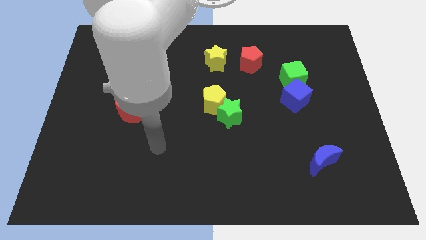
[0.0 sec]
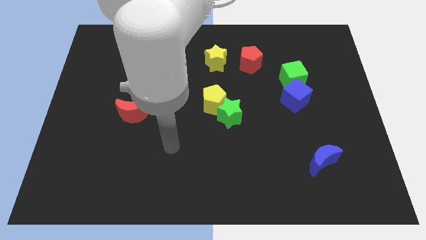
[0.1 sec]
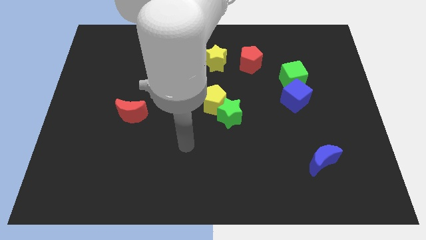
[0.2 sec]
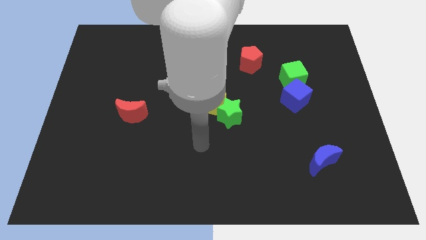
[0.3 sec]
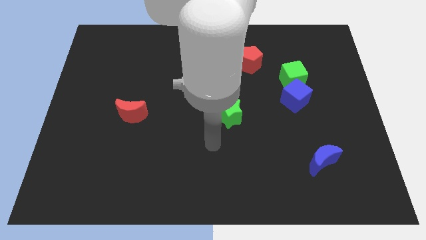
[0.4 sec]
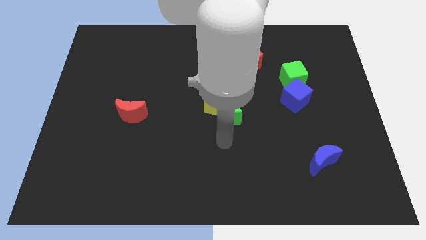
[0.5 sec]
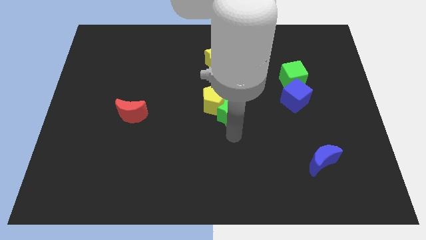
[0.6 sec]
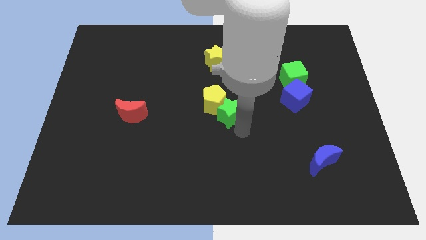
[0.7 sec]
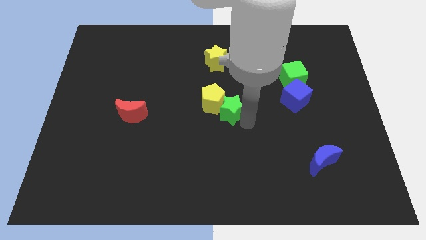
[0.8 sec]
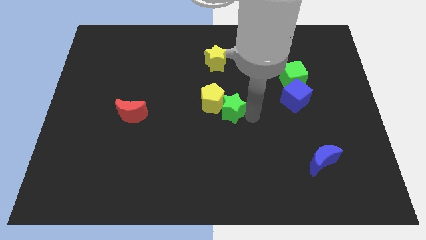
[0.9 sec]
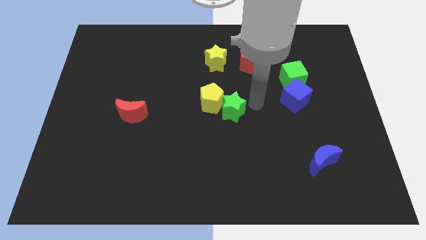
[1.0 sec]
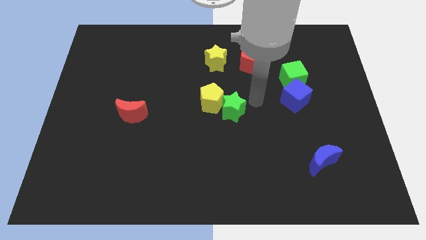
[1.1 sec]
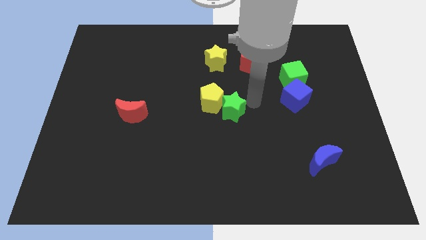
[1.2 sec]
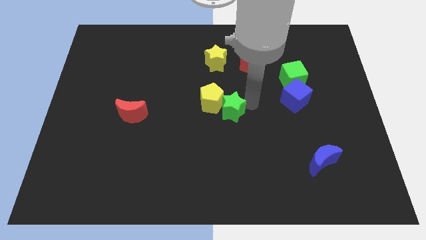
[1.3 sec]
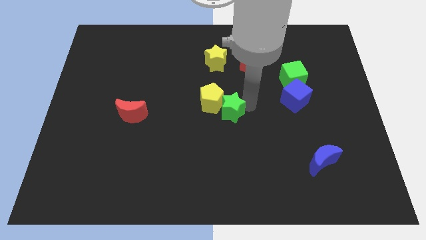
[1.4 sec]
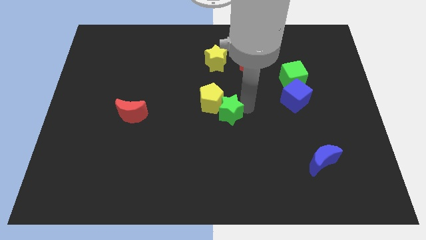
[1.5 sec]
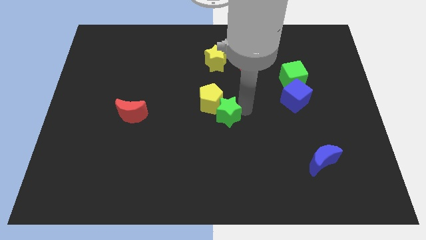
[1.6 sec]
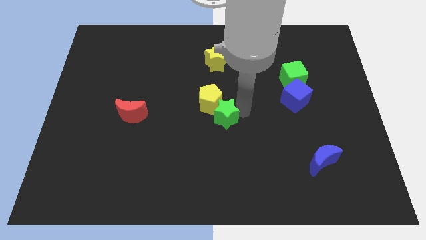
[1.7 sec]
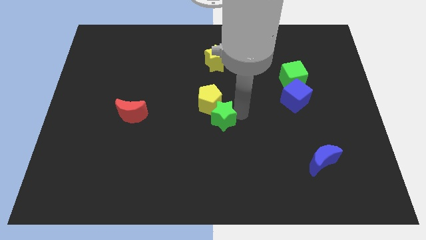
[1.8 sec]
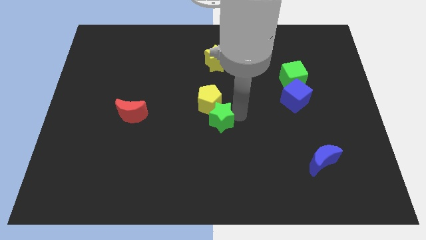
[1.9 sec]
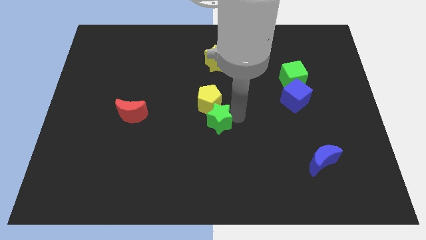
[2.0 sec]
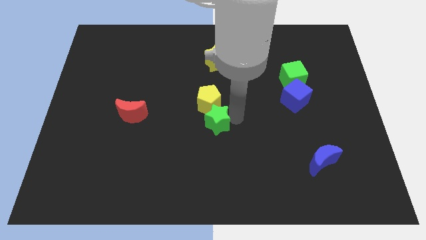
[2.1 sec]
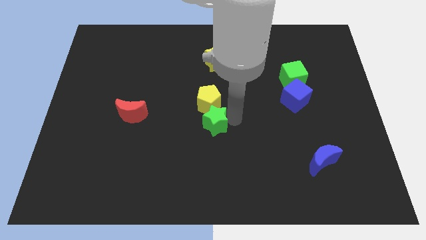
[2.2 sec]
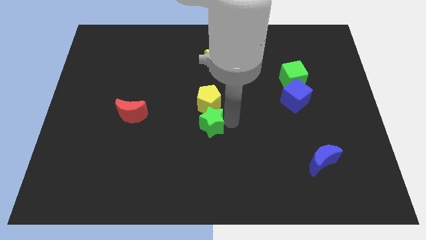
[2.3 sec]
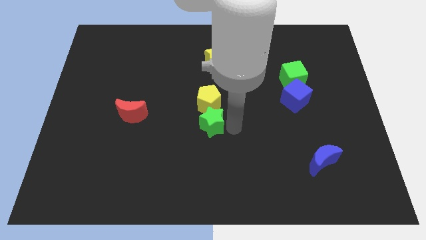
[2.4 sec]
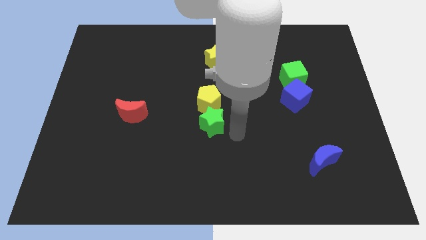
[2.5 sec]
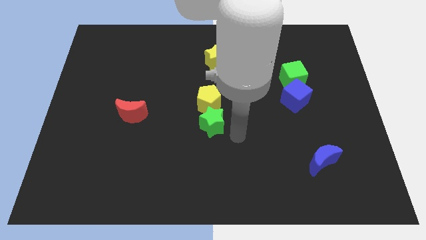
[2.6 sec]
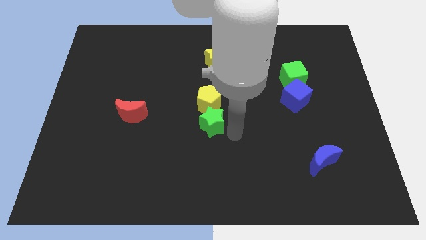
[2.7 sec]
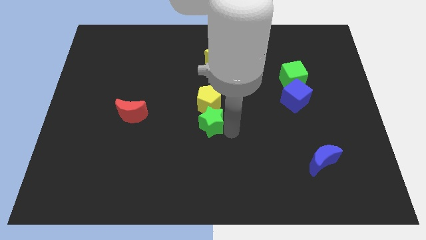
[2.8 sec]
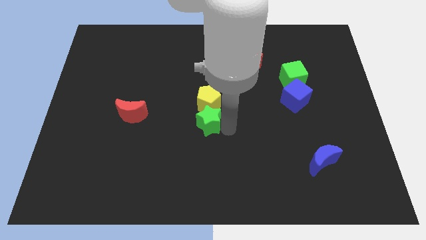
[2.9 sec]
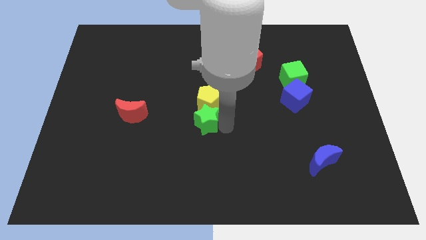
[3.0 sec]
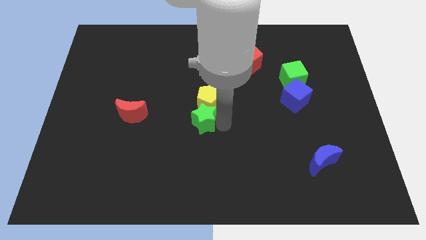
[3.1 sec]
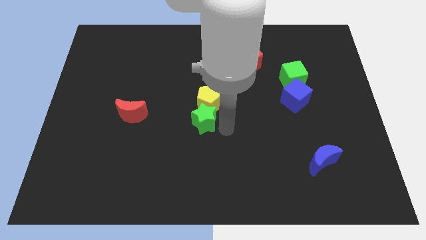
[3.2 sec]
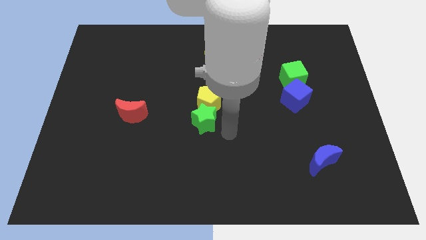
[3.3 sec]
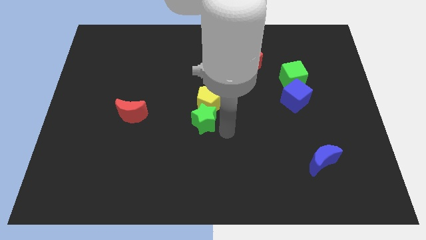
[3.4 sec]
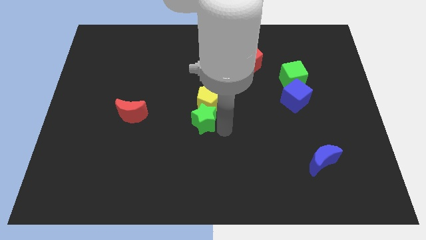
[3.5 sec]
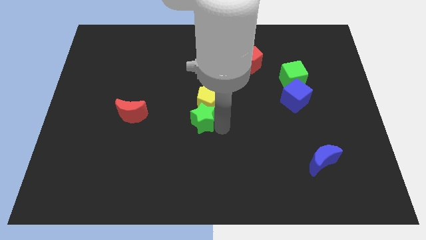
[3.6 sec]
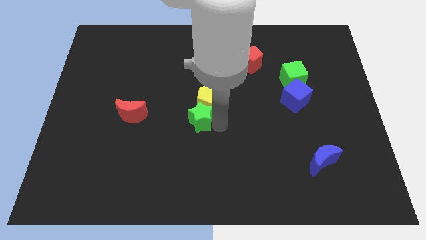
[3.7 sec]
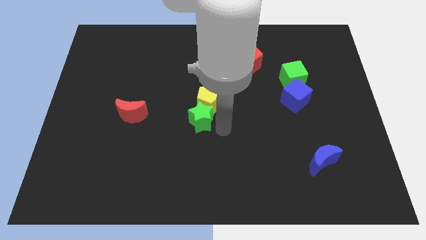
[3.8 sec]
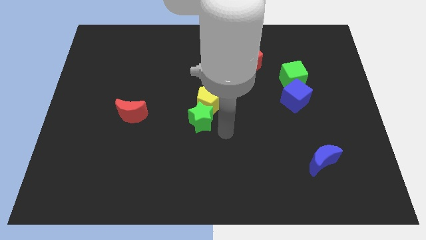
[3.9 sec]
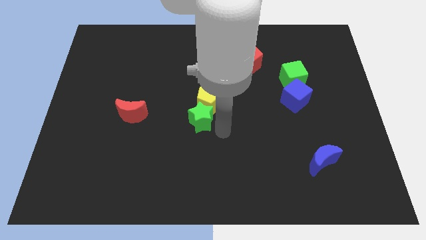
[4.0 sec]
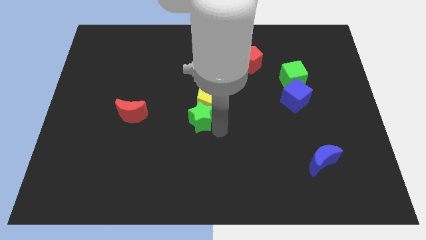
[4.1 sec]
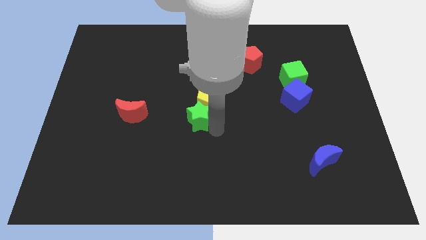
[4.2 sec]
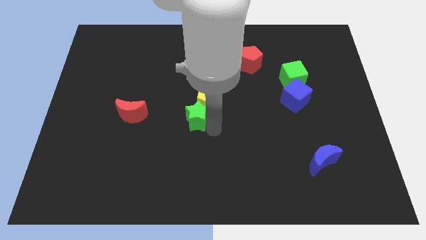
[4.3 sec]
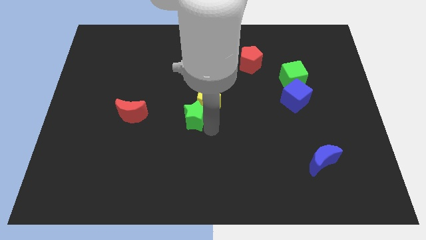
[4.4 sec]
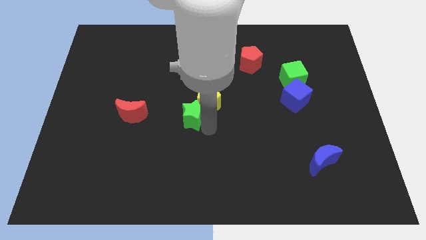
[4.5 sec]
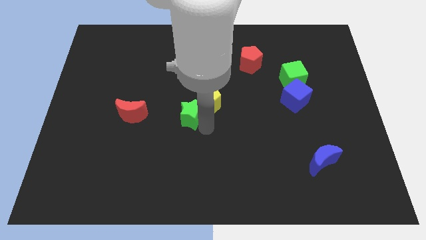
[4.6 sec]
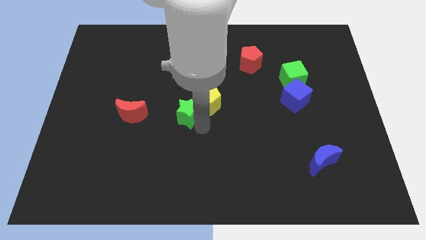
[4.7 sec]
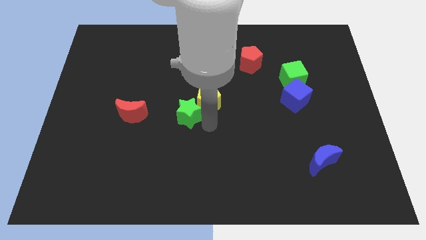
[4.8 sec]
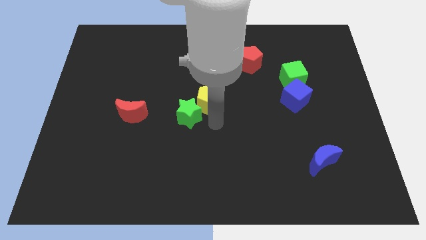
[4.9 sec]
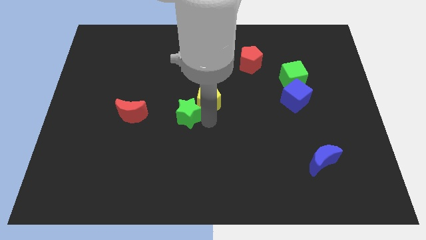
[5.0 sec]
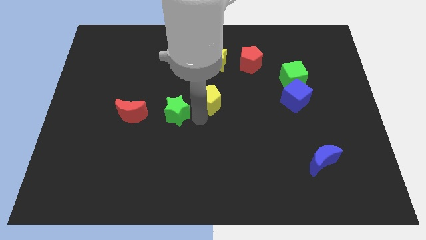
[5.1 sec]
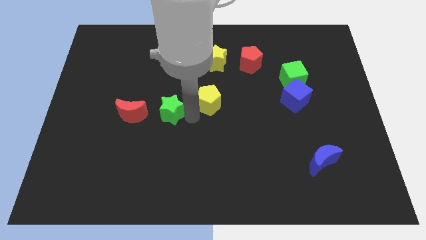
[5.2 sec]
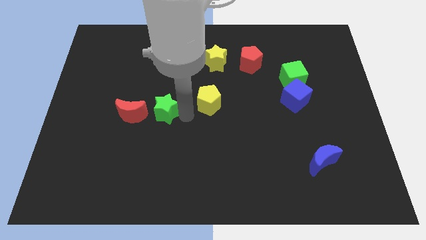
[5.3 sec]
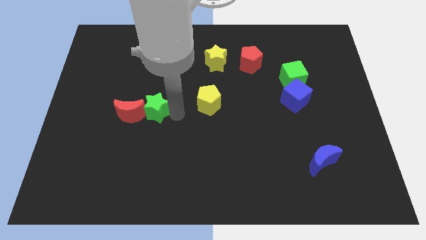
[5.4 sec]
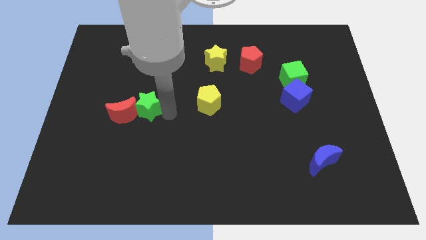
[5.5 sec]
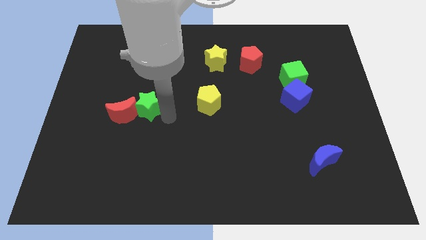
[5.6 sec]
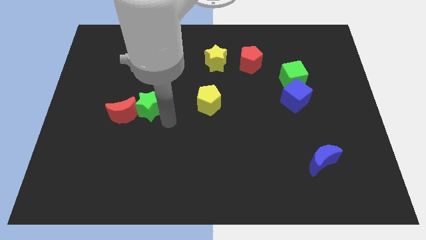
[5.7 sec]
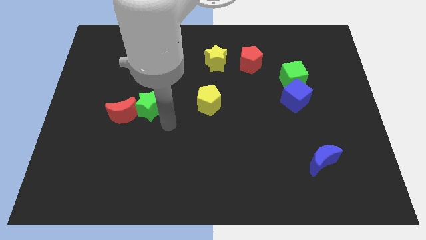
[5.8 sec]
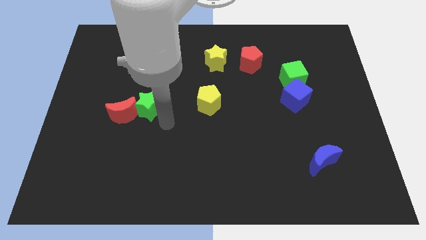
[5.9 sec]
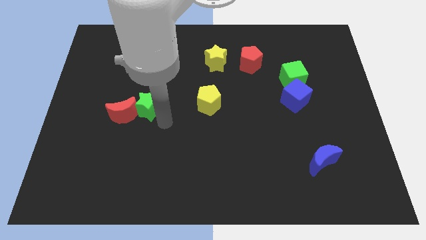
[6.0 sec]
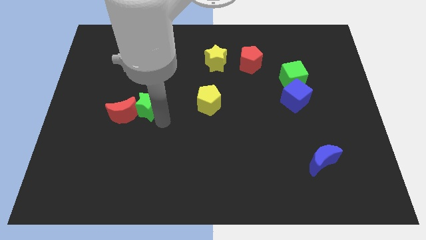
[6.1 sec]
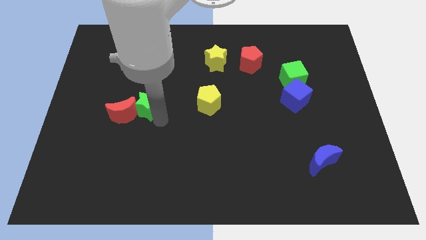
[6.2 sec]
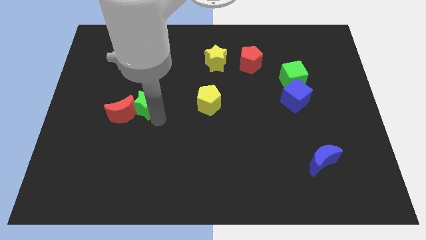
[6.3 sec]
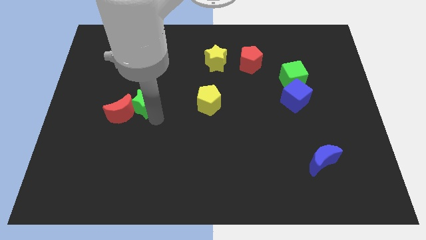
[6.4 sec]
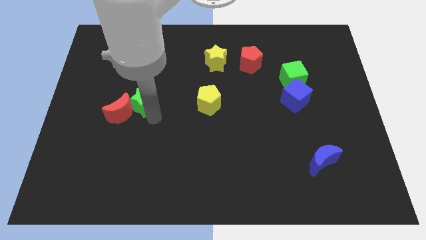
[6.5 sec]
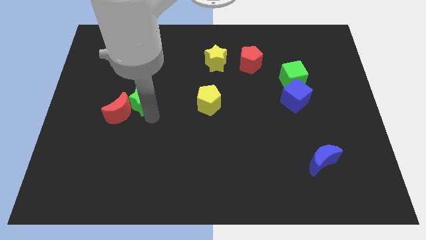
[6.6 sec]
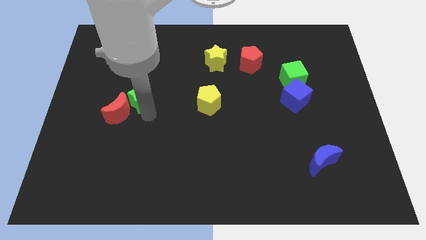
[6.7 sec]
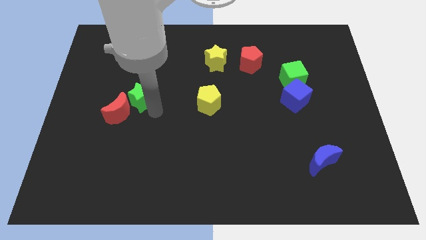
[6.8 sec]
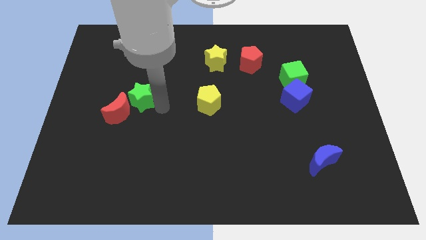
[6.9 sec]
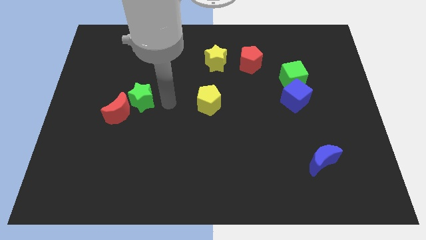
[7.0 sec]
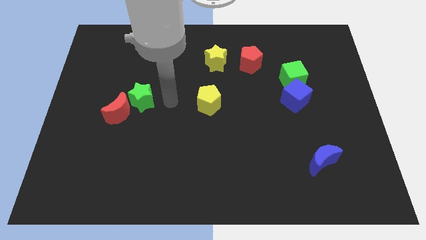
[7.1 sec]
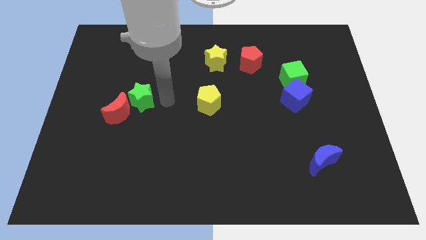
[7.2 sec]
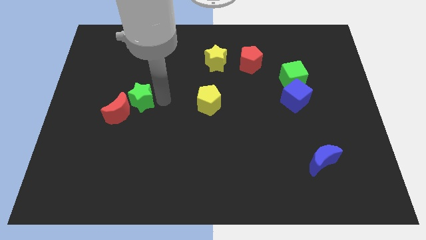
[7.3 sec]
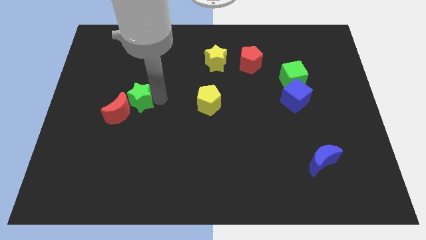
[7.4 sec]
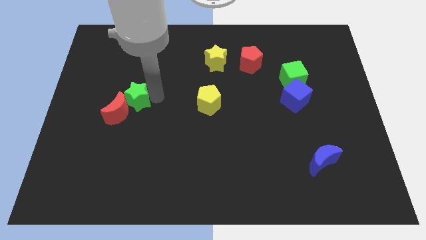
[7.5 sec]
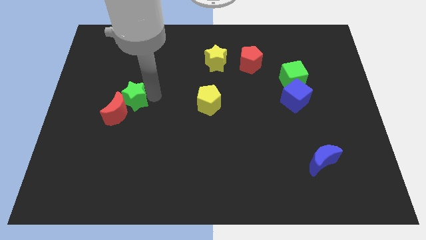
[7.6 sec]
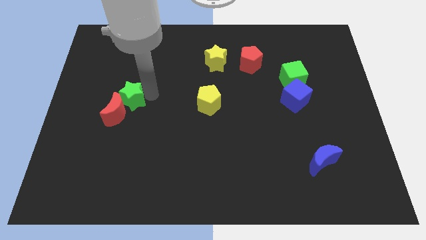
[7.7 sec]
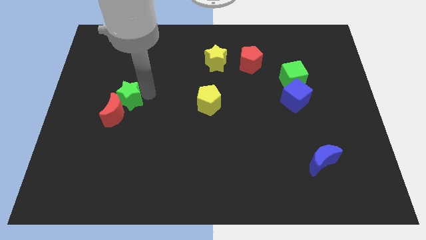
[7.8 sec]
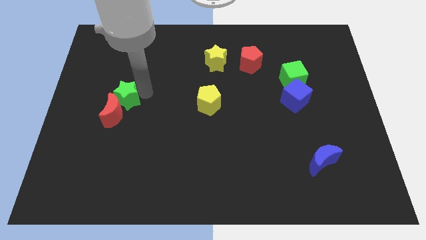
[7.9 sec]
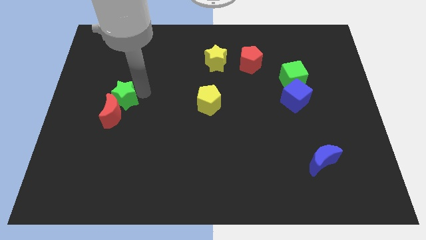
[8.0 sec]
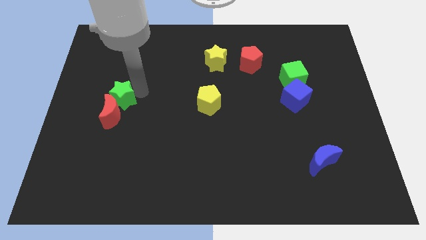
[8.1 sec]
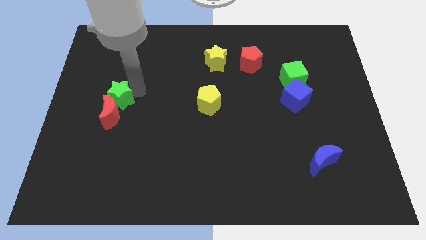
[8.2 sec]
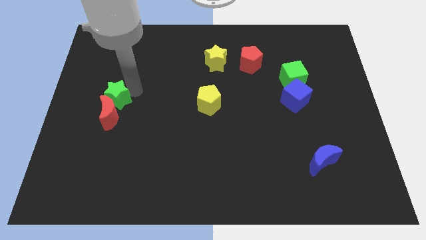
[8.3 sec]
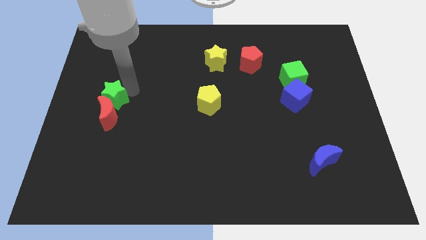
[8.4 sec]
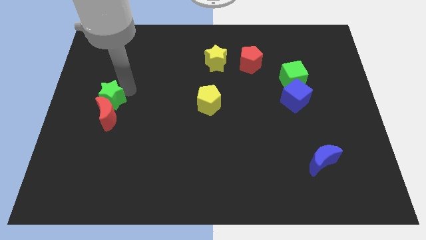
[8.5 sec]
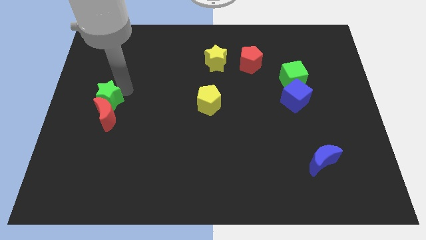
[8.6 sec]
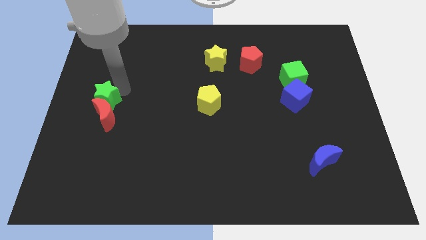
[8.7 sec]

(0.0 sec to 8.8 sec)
put the green star to the left side
